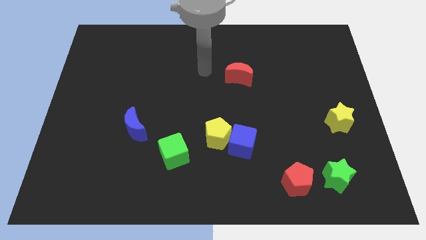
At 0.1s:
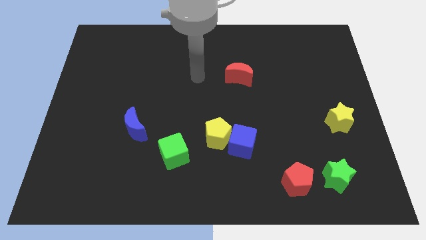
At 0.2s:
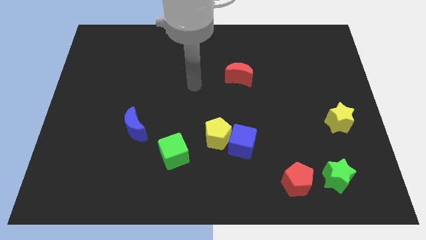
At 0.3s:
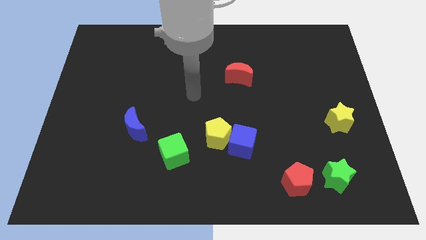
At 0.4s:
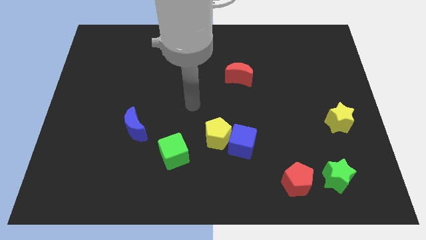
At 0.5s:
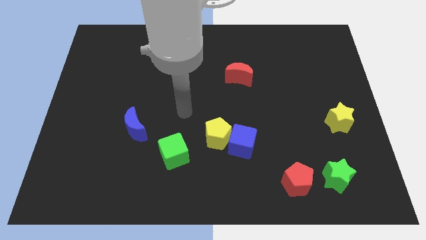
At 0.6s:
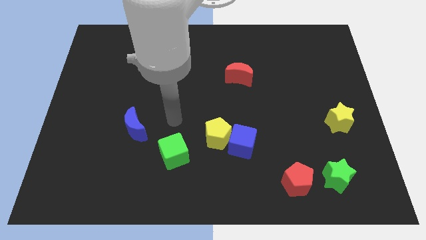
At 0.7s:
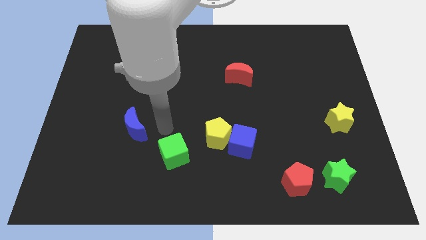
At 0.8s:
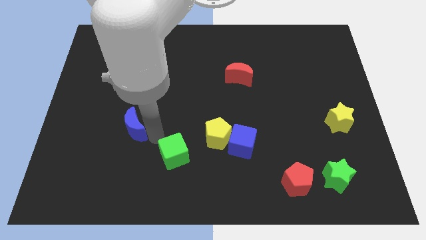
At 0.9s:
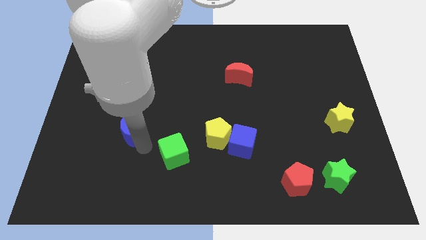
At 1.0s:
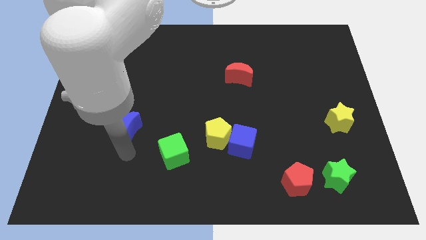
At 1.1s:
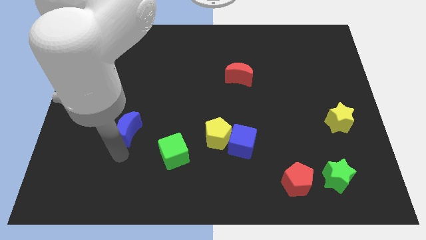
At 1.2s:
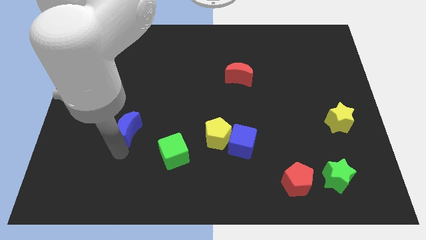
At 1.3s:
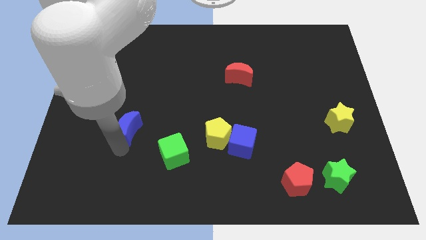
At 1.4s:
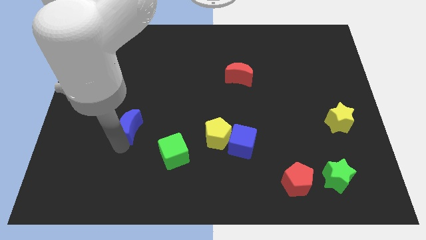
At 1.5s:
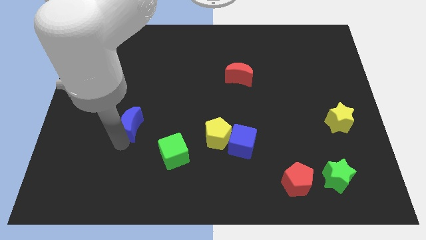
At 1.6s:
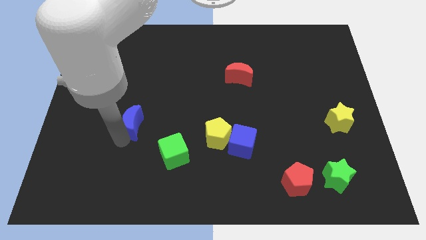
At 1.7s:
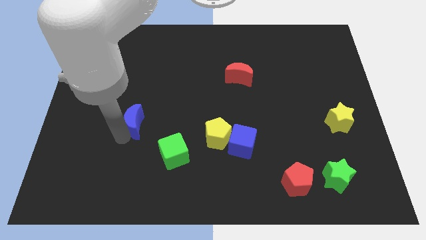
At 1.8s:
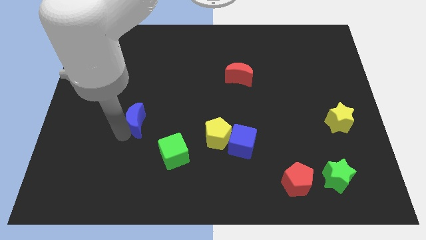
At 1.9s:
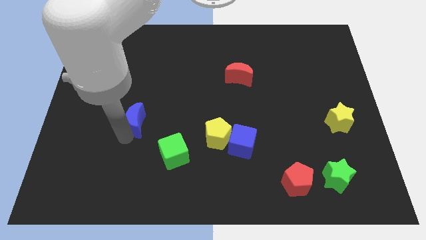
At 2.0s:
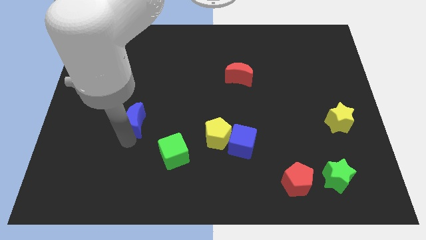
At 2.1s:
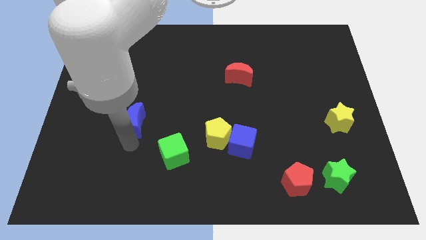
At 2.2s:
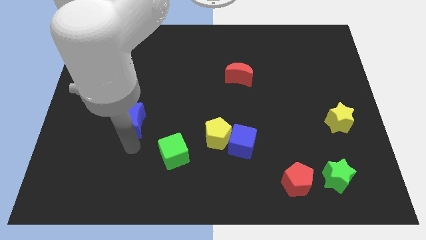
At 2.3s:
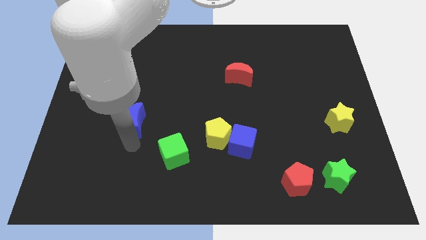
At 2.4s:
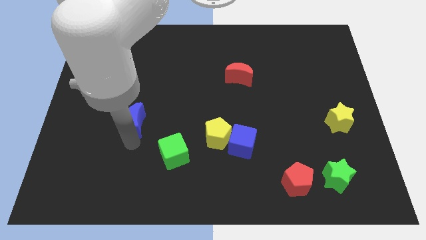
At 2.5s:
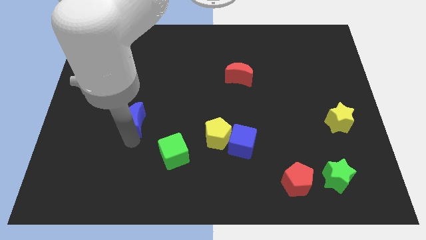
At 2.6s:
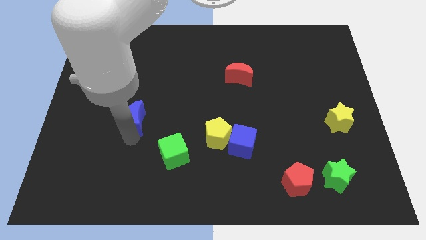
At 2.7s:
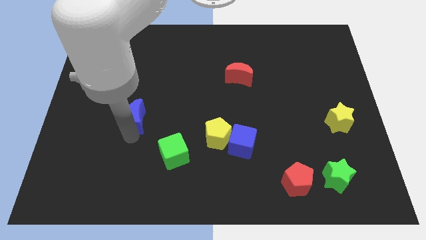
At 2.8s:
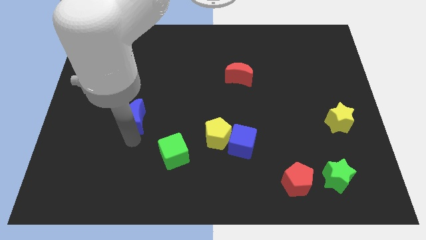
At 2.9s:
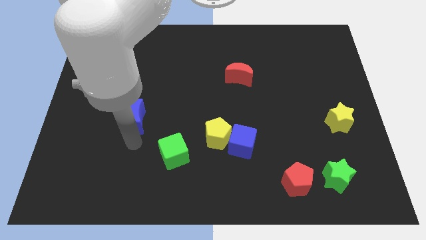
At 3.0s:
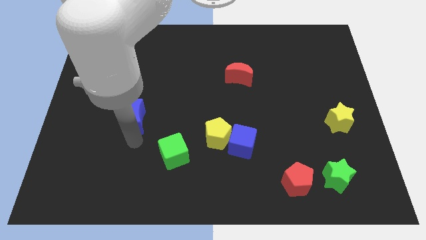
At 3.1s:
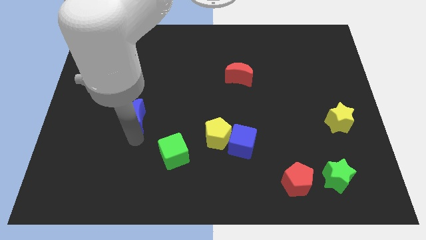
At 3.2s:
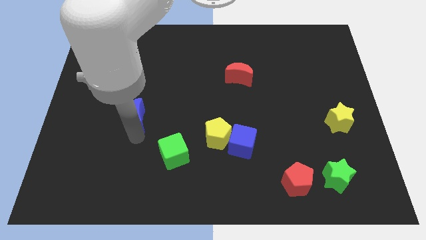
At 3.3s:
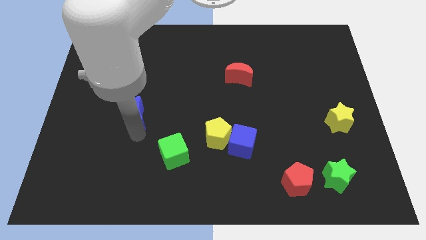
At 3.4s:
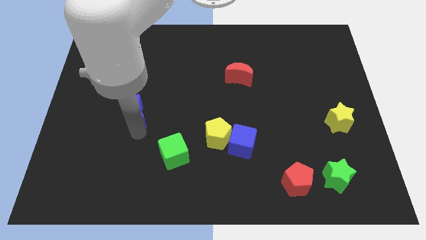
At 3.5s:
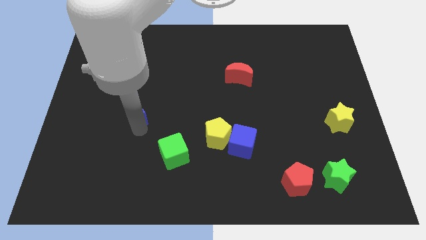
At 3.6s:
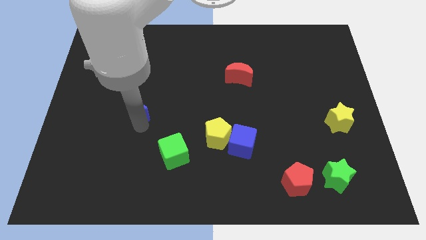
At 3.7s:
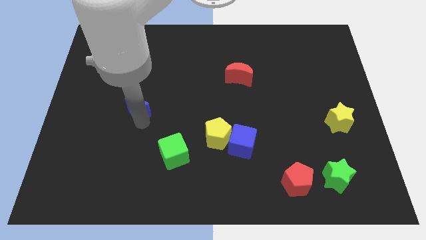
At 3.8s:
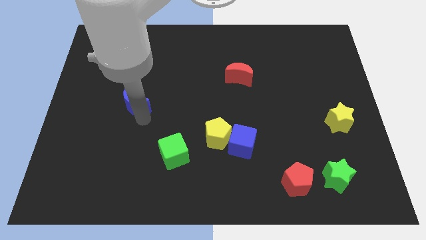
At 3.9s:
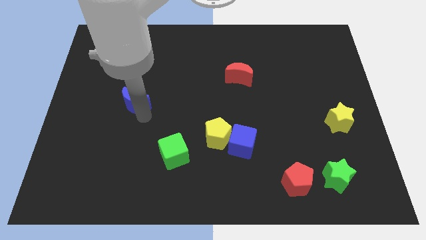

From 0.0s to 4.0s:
slightly move the blue moon up

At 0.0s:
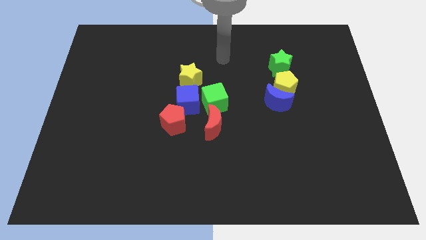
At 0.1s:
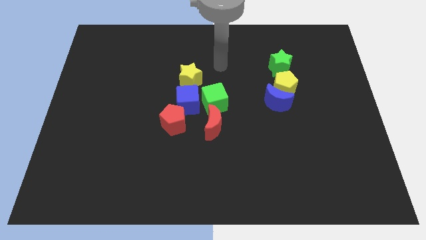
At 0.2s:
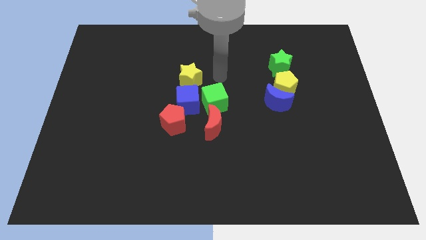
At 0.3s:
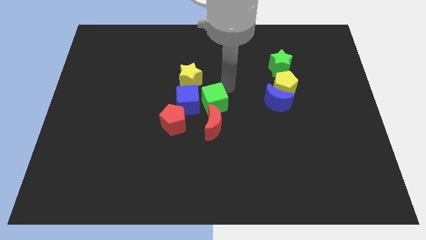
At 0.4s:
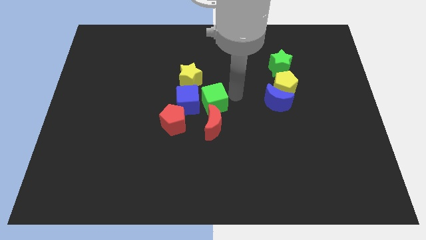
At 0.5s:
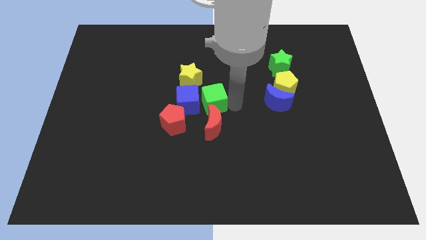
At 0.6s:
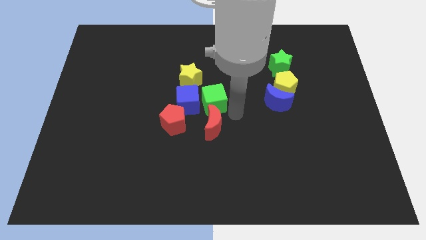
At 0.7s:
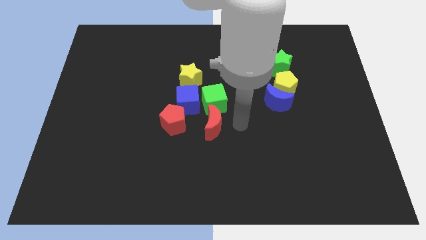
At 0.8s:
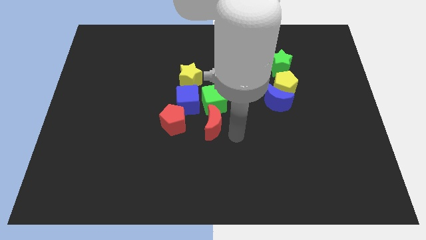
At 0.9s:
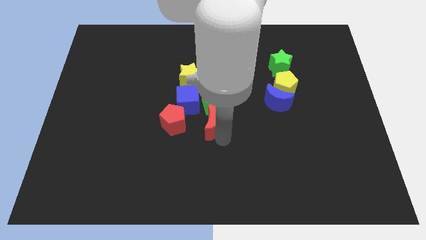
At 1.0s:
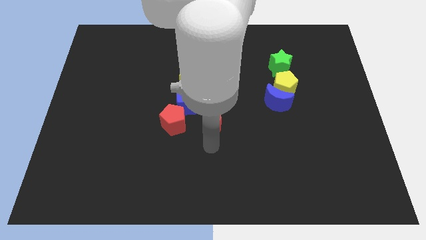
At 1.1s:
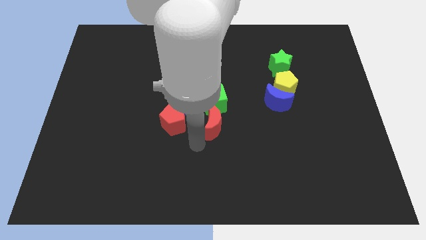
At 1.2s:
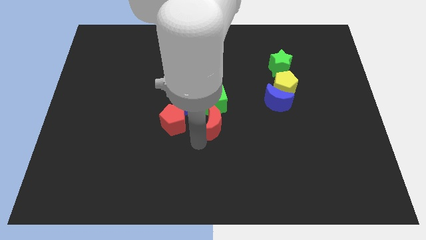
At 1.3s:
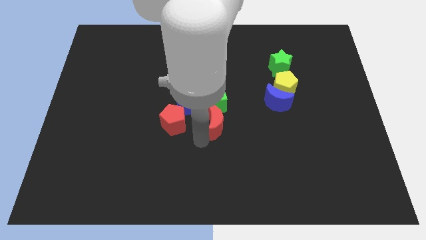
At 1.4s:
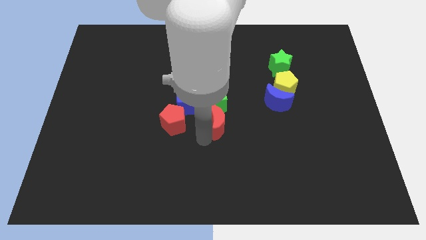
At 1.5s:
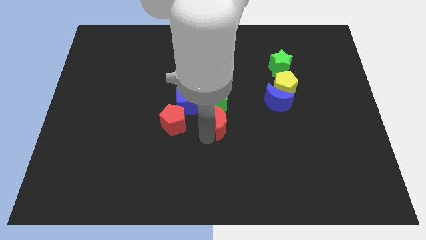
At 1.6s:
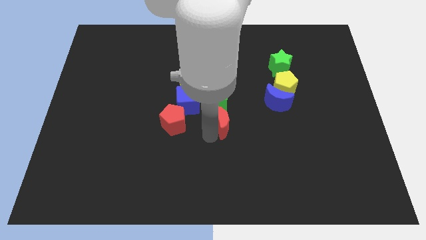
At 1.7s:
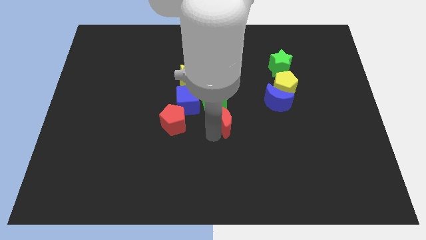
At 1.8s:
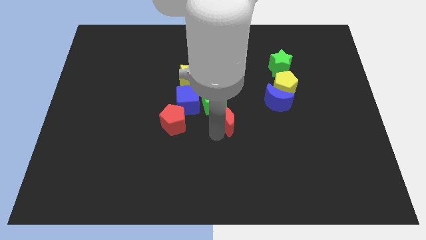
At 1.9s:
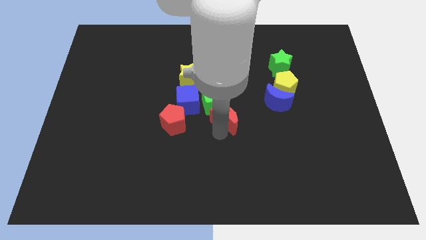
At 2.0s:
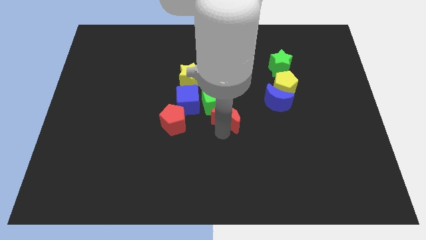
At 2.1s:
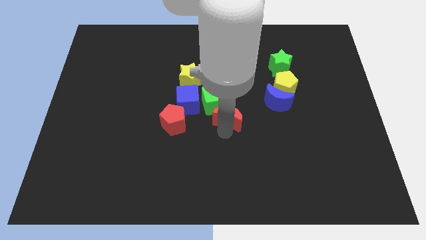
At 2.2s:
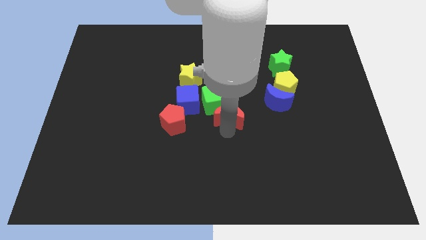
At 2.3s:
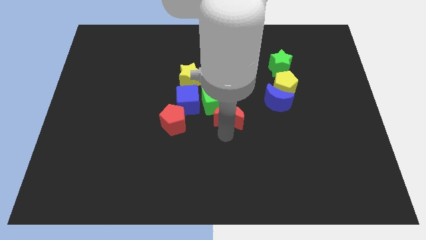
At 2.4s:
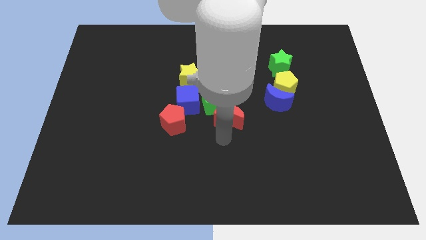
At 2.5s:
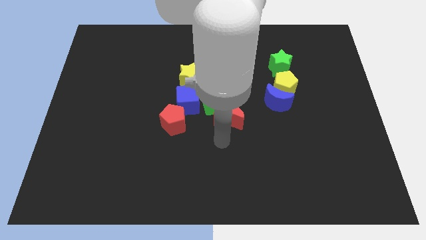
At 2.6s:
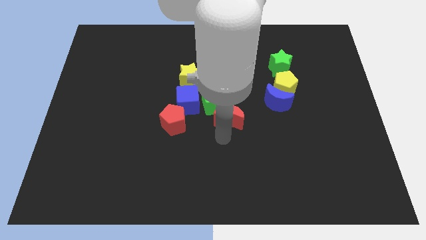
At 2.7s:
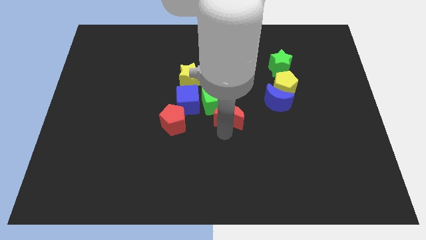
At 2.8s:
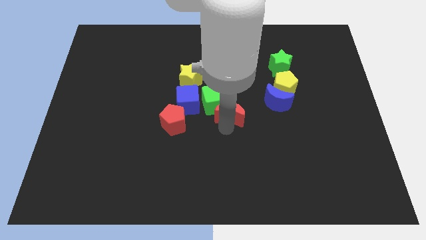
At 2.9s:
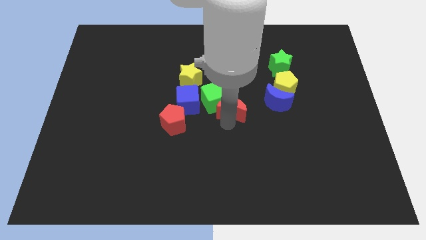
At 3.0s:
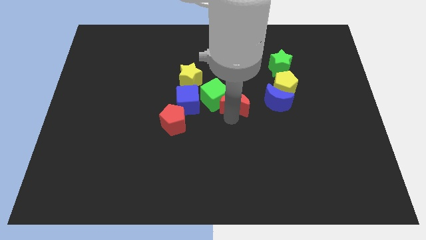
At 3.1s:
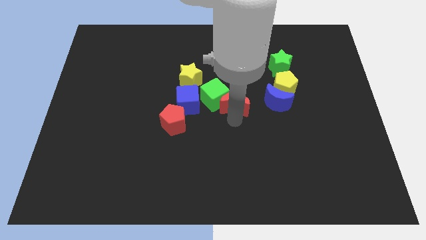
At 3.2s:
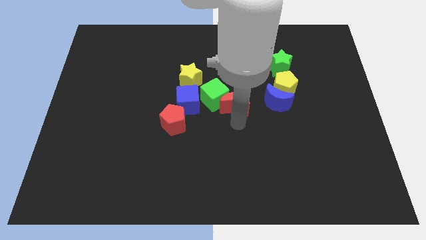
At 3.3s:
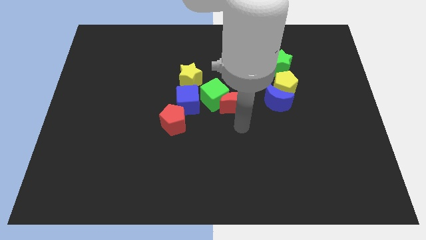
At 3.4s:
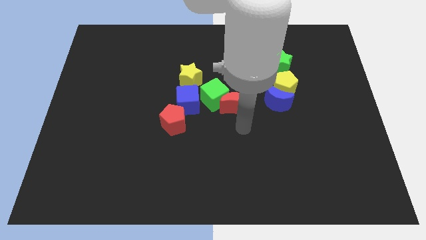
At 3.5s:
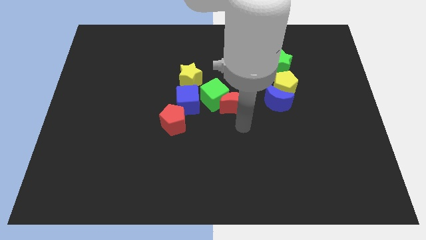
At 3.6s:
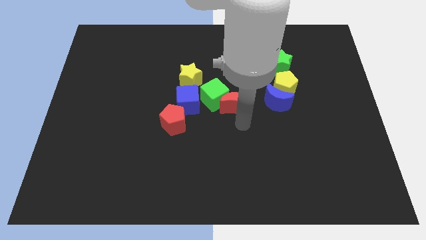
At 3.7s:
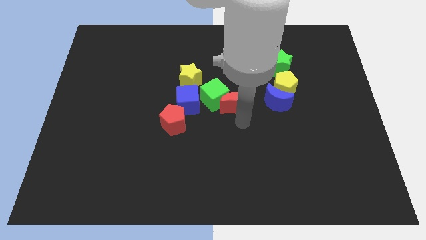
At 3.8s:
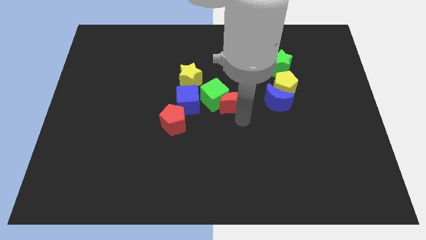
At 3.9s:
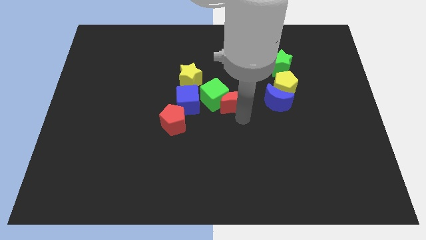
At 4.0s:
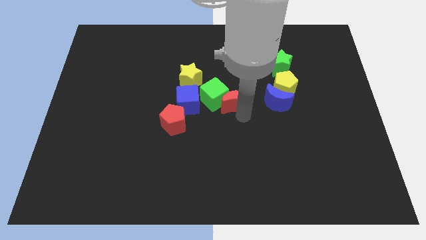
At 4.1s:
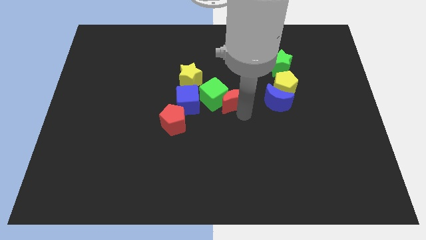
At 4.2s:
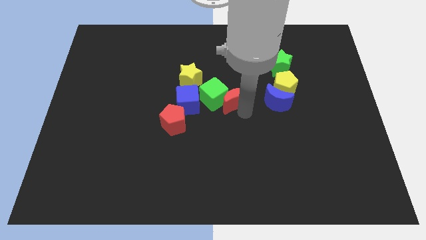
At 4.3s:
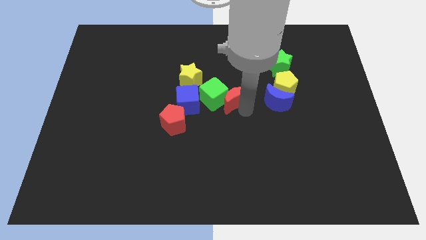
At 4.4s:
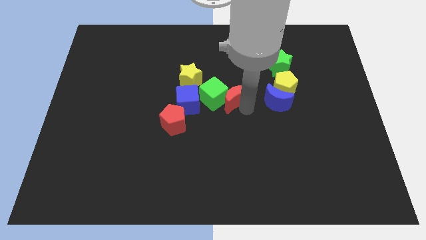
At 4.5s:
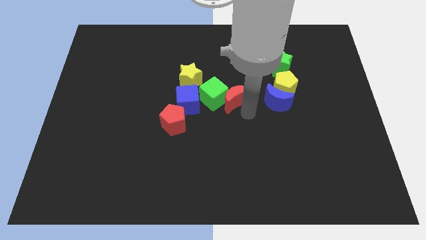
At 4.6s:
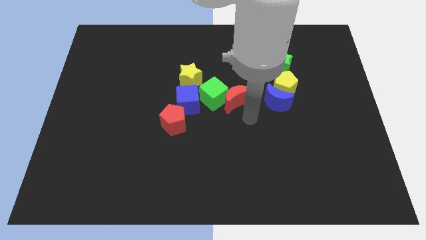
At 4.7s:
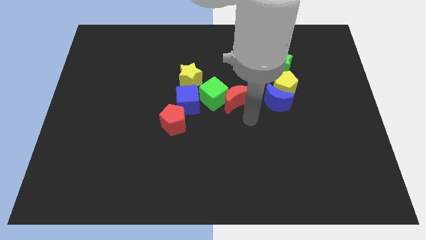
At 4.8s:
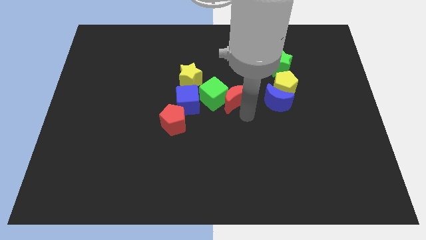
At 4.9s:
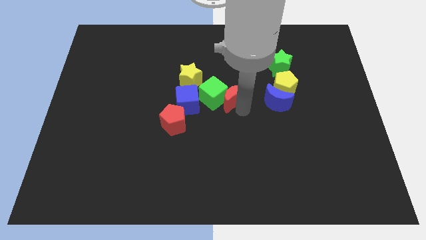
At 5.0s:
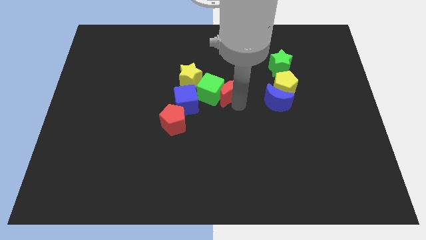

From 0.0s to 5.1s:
slightly move the red moon upwards
